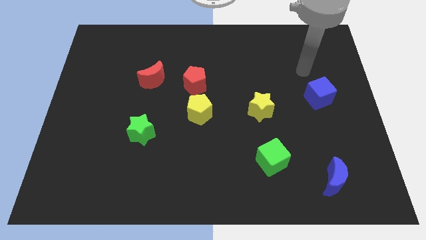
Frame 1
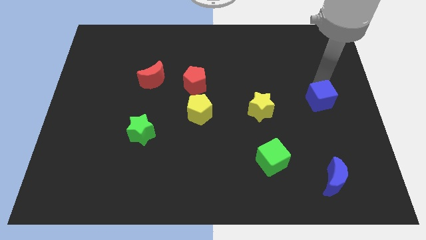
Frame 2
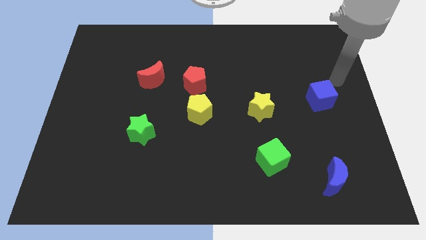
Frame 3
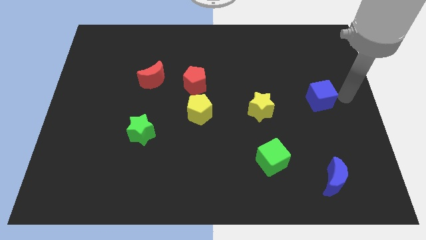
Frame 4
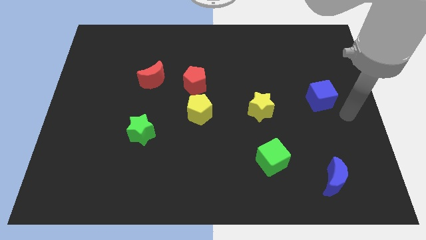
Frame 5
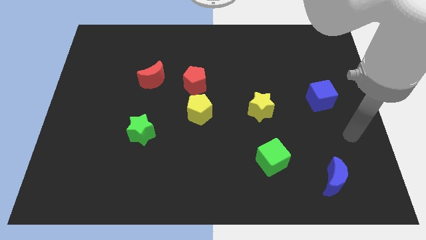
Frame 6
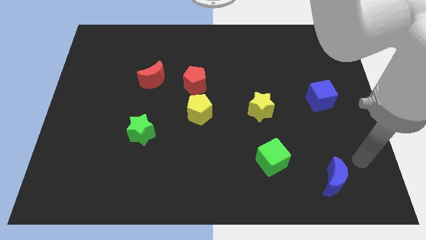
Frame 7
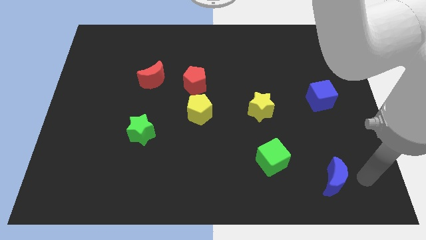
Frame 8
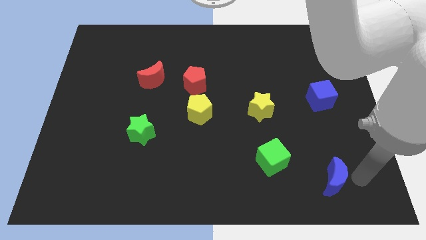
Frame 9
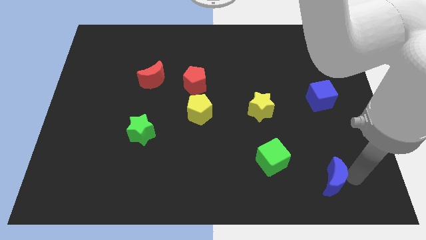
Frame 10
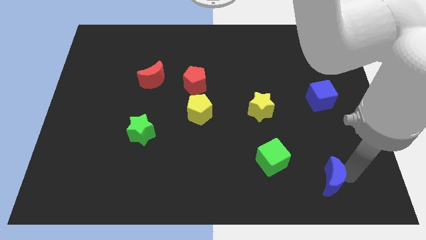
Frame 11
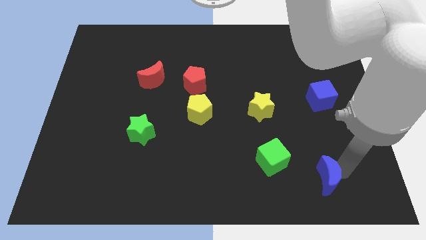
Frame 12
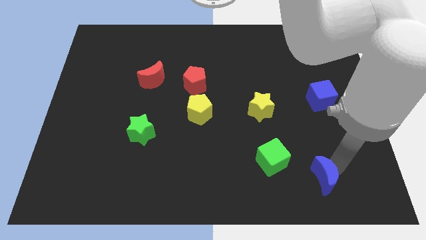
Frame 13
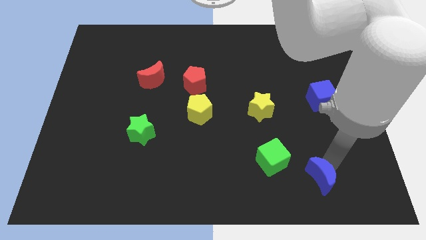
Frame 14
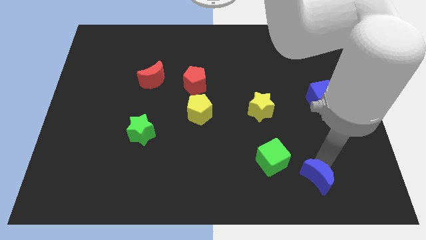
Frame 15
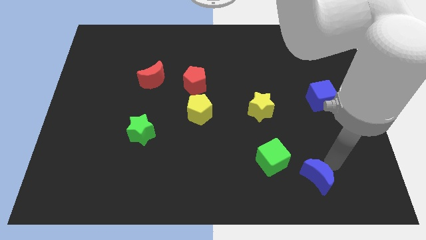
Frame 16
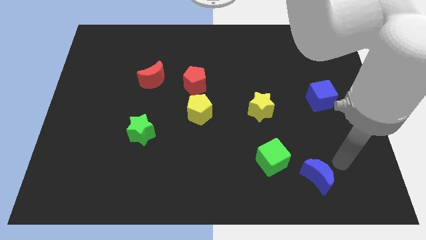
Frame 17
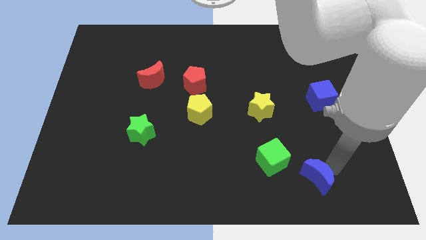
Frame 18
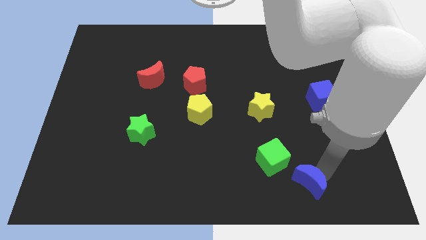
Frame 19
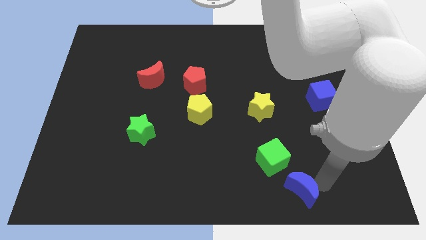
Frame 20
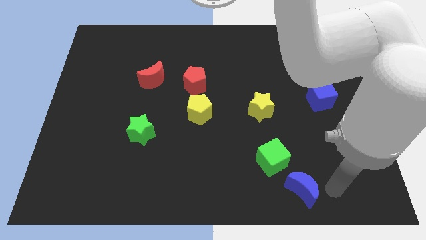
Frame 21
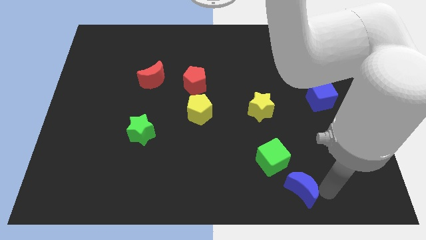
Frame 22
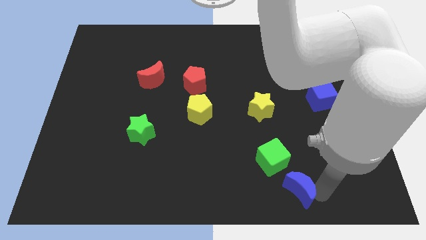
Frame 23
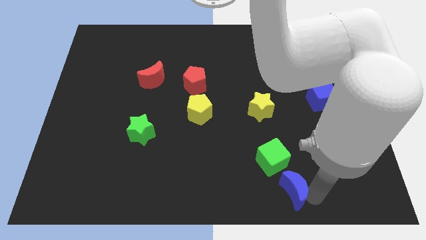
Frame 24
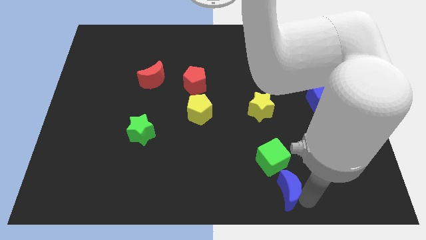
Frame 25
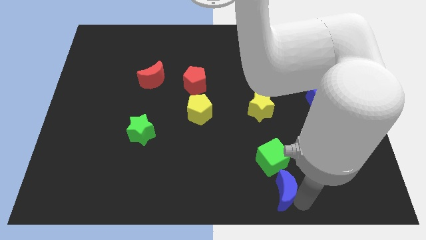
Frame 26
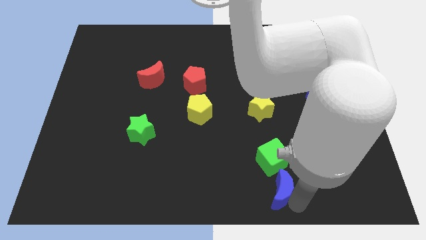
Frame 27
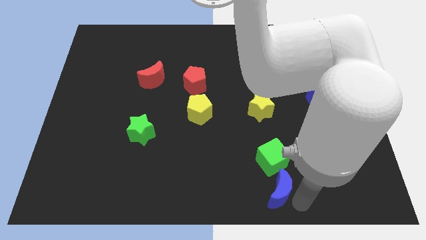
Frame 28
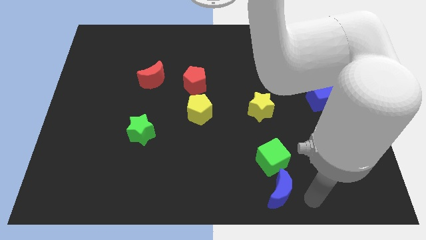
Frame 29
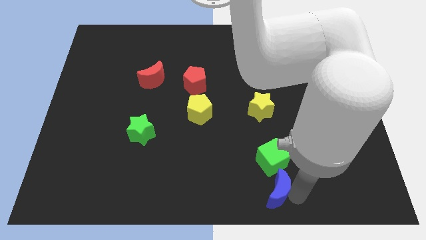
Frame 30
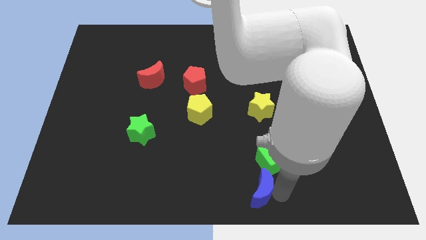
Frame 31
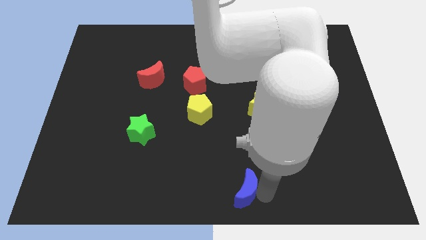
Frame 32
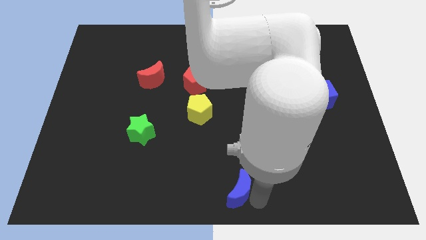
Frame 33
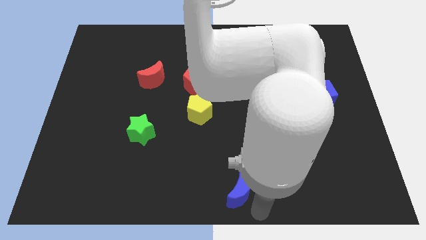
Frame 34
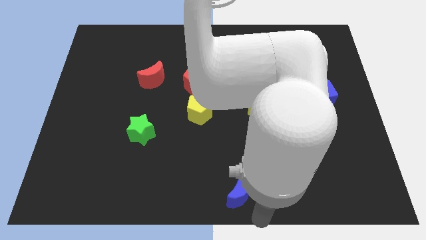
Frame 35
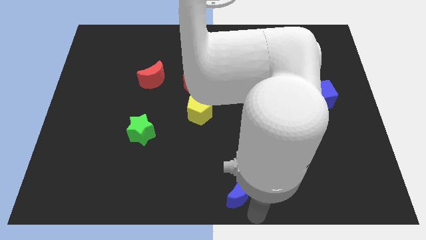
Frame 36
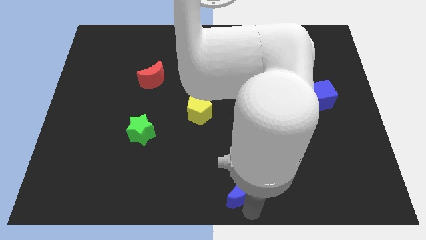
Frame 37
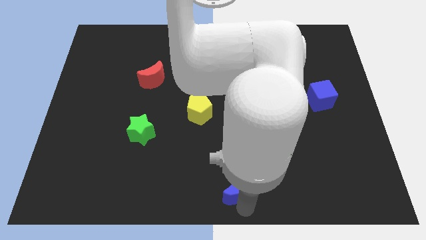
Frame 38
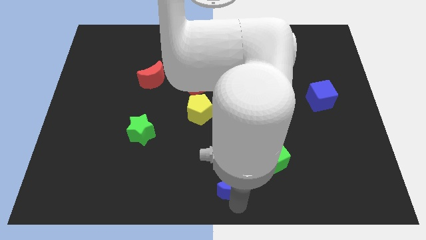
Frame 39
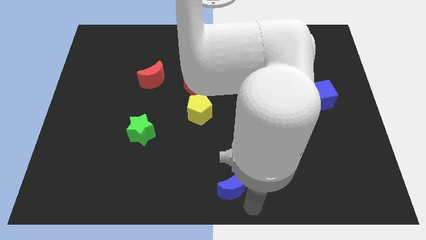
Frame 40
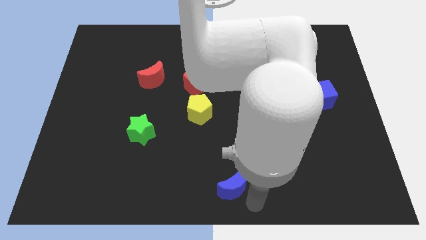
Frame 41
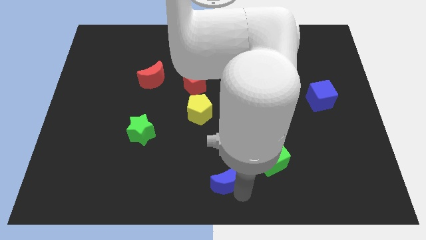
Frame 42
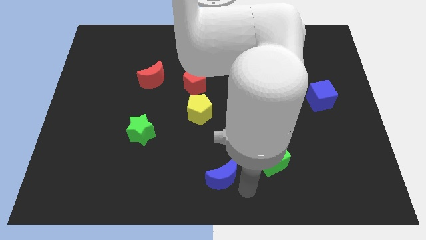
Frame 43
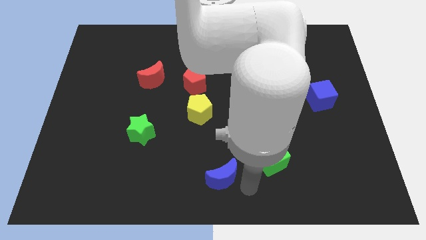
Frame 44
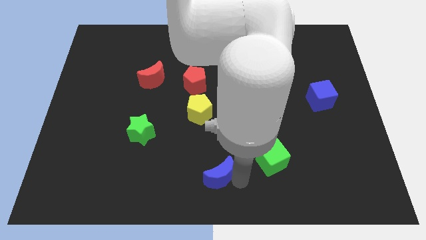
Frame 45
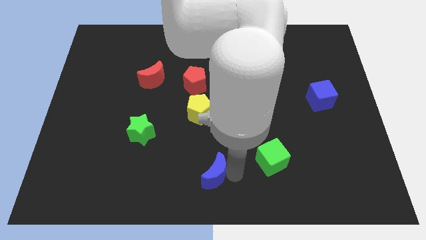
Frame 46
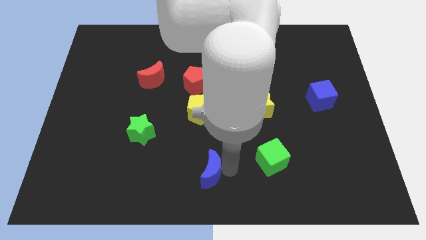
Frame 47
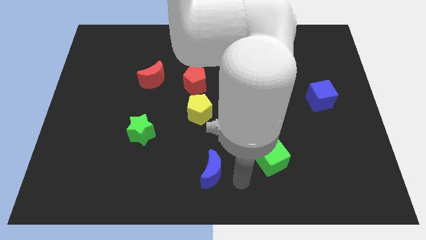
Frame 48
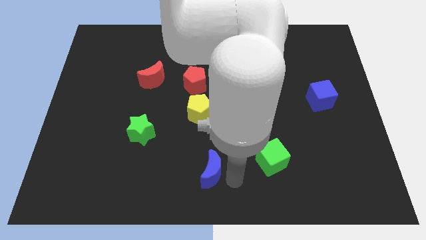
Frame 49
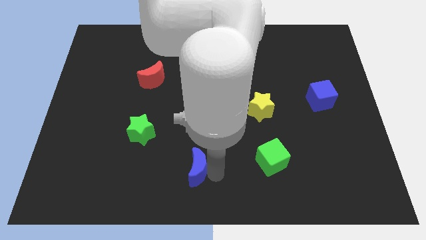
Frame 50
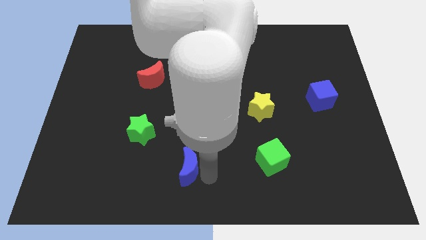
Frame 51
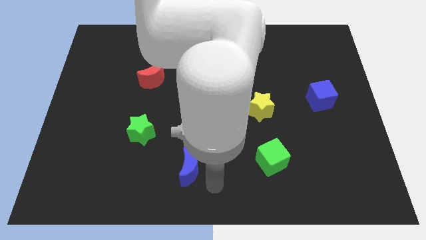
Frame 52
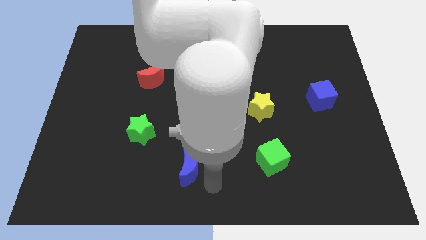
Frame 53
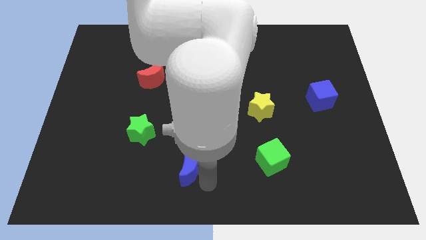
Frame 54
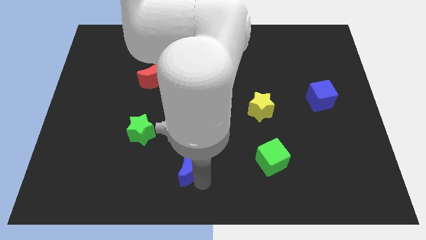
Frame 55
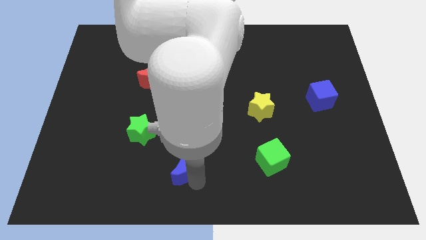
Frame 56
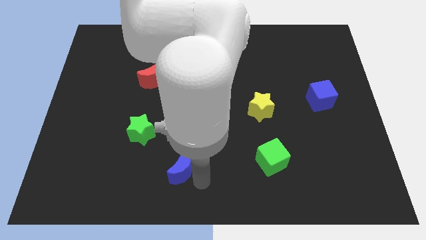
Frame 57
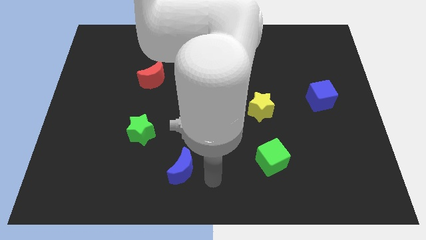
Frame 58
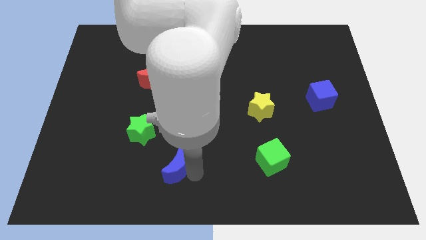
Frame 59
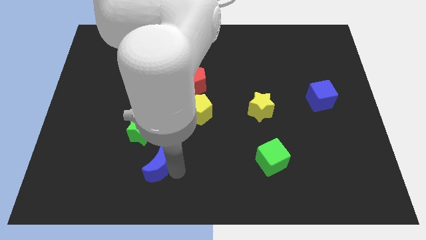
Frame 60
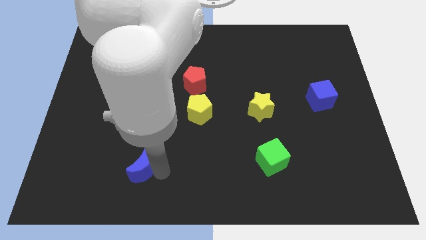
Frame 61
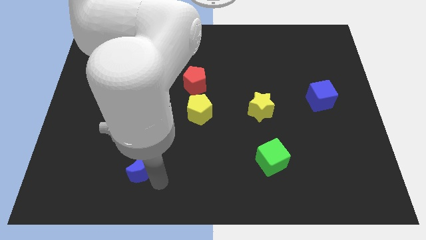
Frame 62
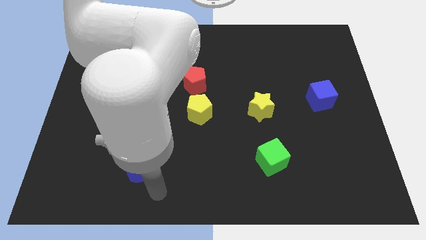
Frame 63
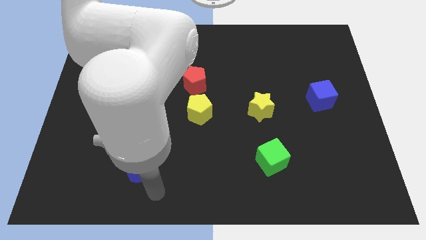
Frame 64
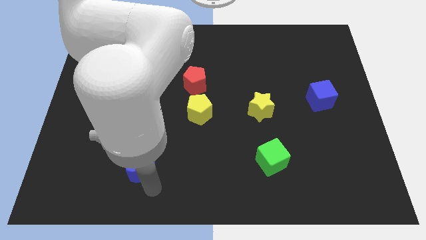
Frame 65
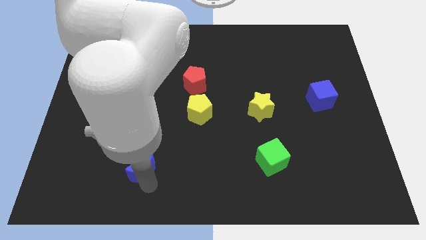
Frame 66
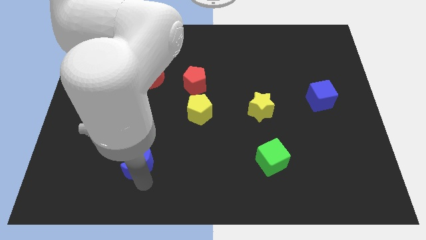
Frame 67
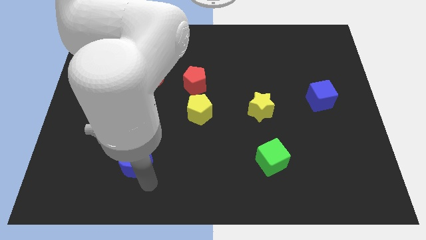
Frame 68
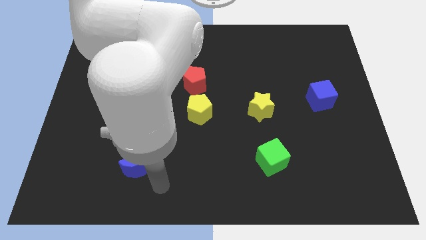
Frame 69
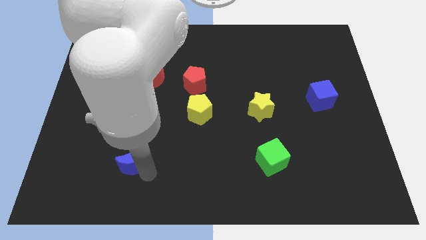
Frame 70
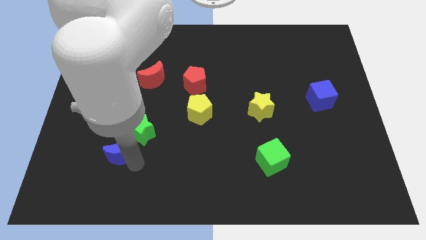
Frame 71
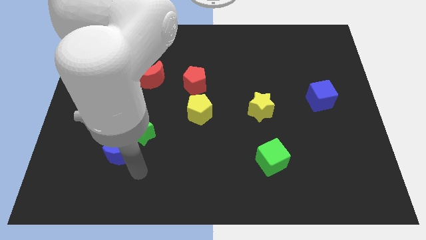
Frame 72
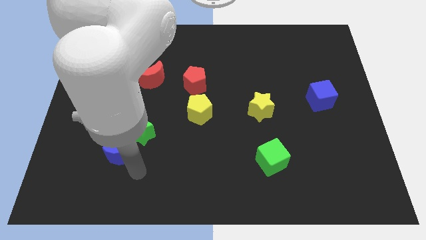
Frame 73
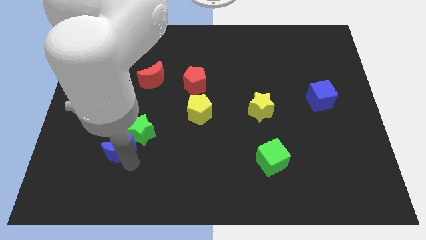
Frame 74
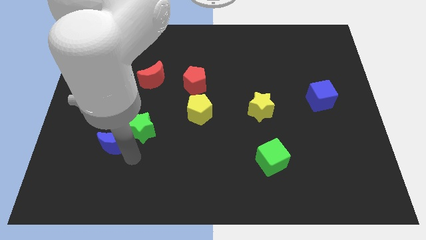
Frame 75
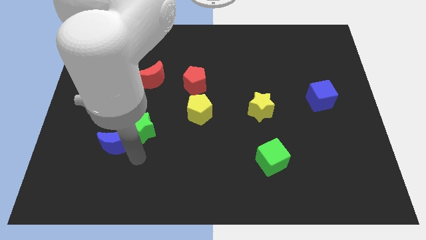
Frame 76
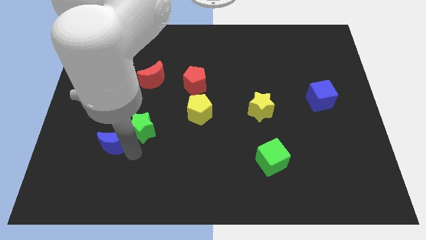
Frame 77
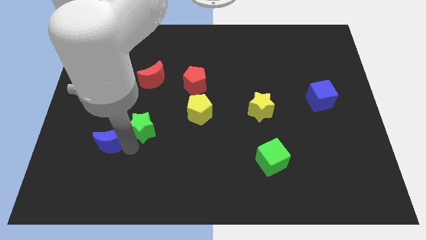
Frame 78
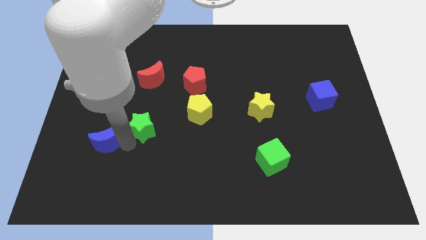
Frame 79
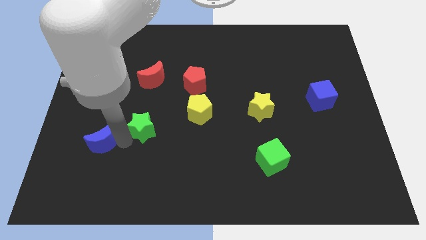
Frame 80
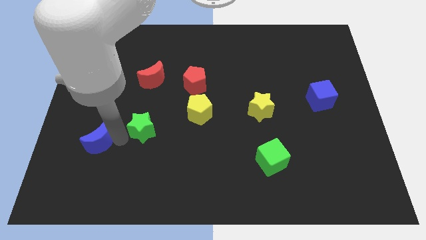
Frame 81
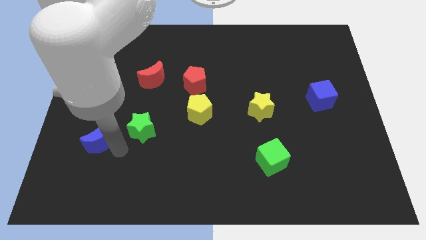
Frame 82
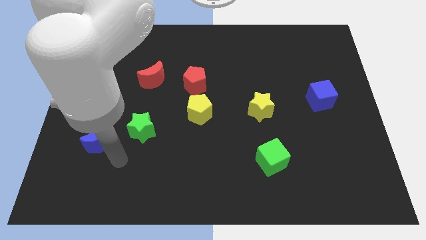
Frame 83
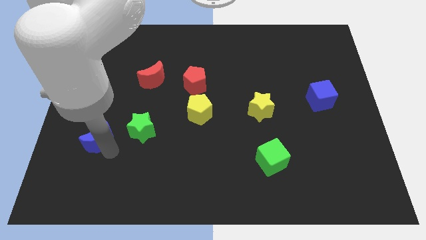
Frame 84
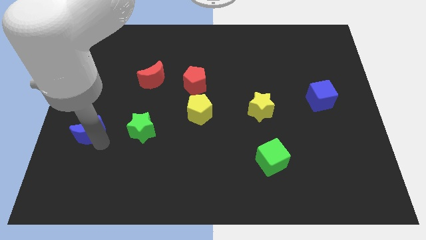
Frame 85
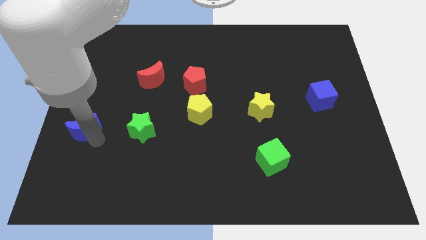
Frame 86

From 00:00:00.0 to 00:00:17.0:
push the blue moon to the left side of the board
